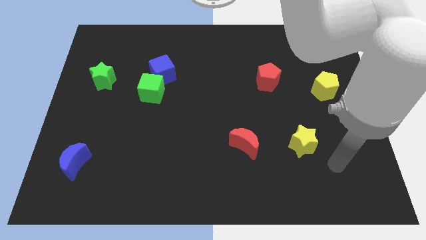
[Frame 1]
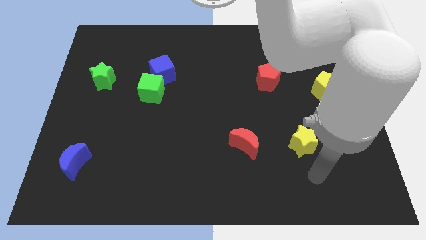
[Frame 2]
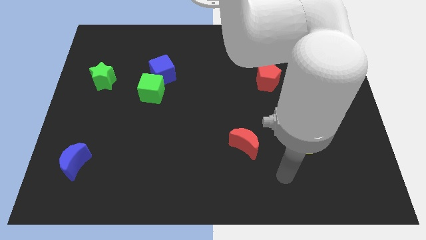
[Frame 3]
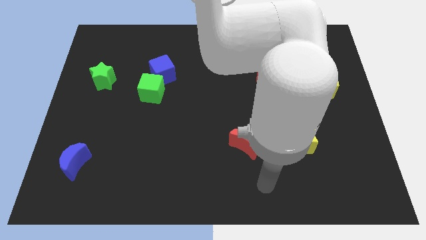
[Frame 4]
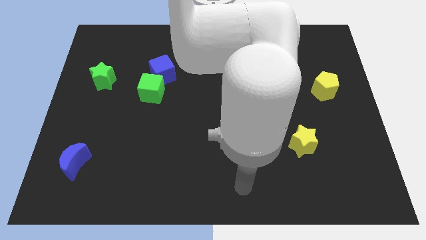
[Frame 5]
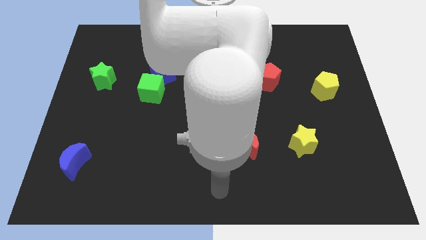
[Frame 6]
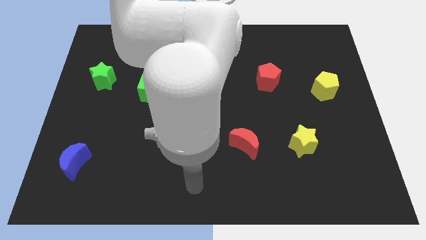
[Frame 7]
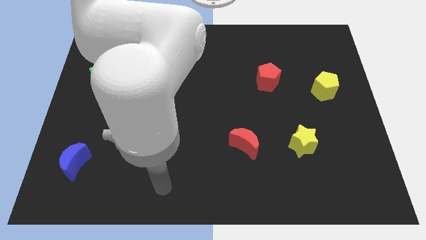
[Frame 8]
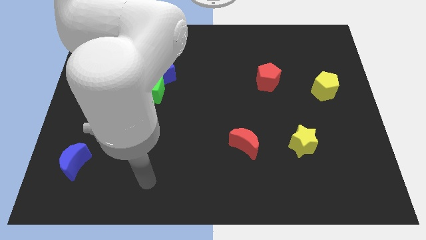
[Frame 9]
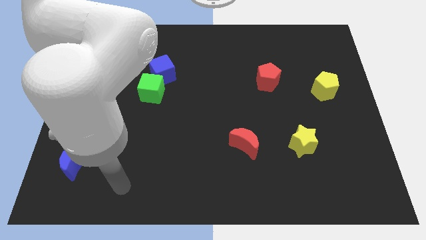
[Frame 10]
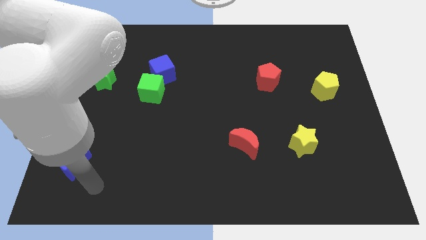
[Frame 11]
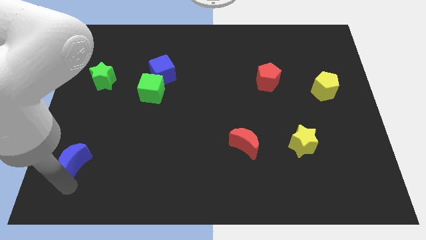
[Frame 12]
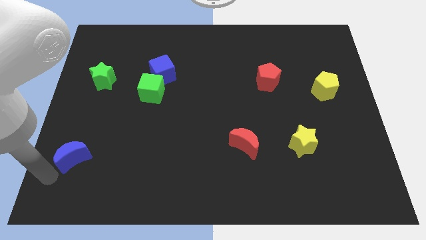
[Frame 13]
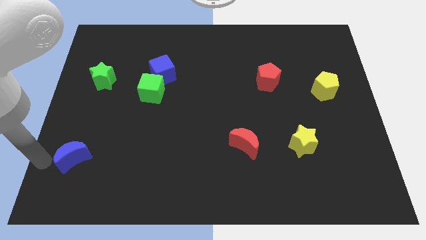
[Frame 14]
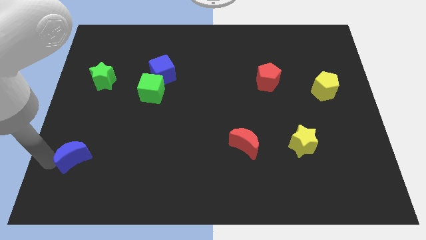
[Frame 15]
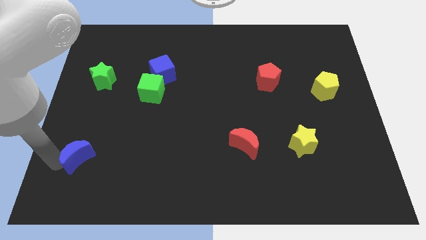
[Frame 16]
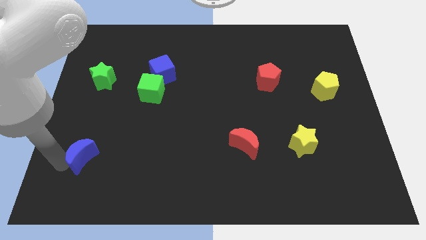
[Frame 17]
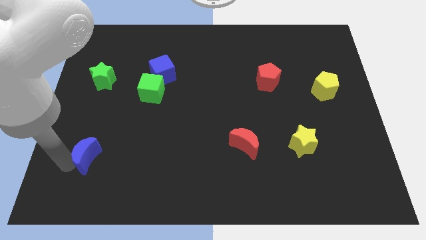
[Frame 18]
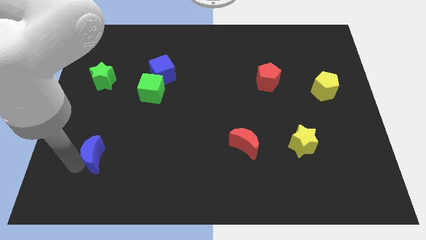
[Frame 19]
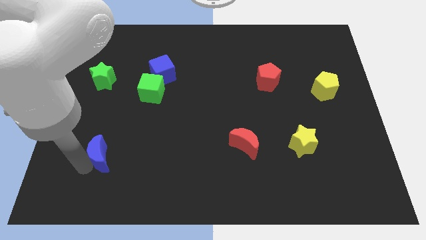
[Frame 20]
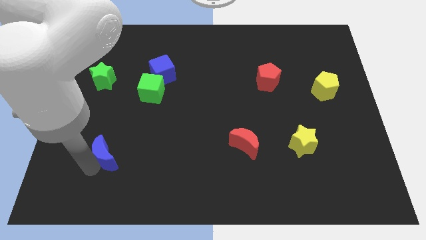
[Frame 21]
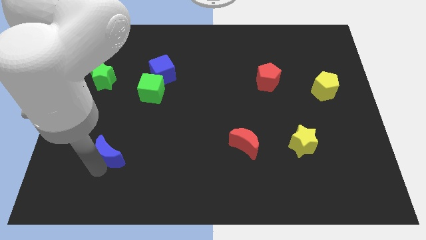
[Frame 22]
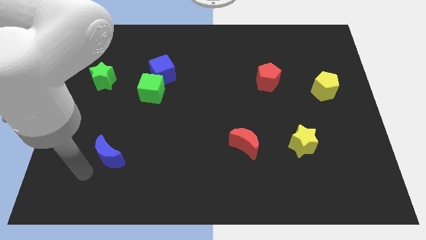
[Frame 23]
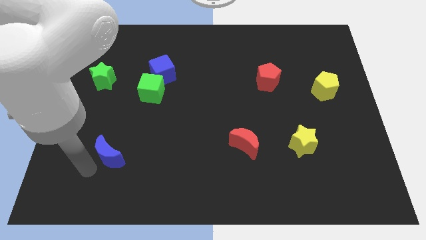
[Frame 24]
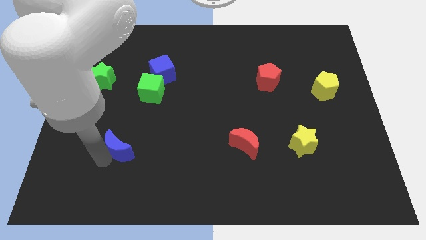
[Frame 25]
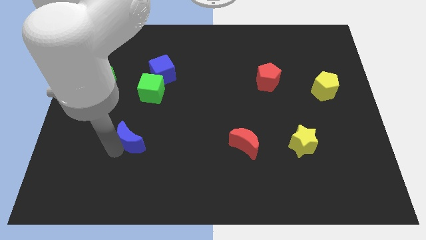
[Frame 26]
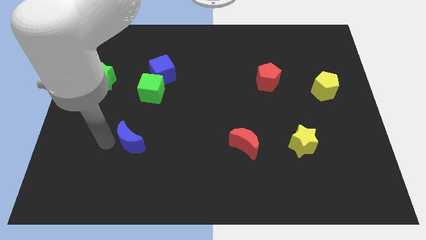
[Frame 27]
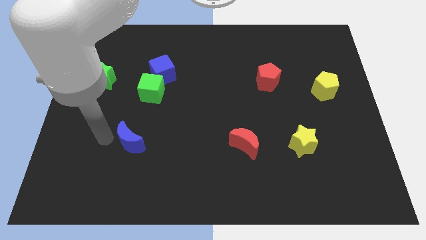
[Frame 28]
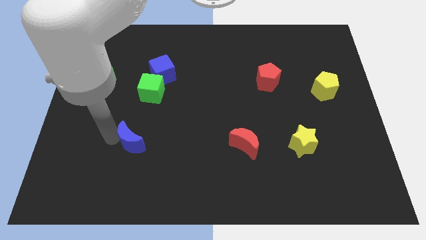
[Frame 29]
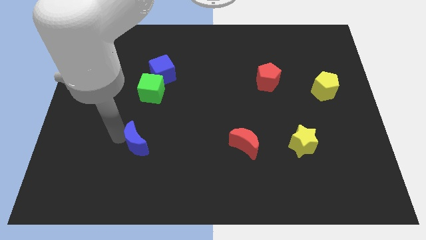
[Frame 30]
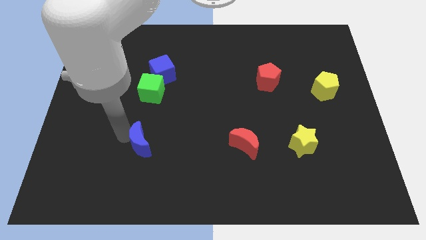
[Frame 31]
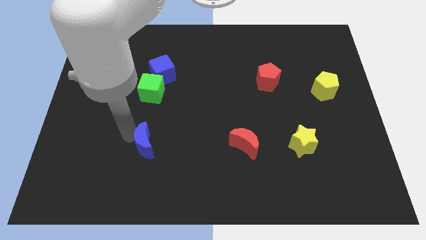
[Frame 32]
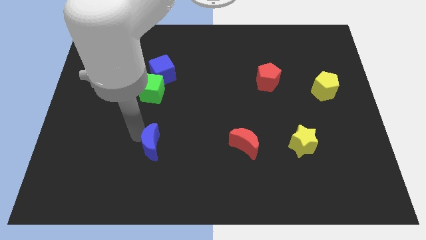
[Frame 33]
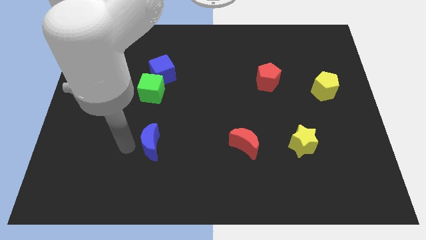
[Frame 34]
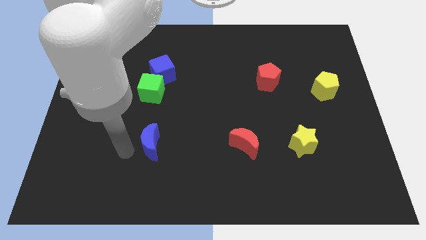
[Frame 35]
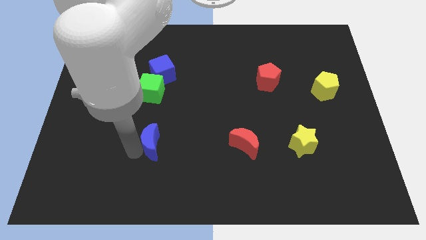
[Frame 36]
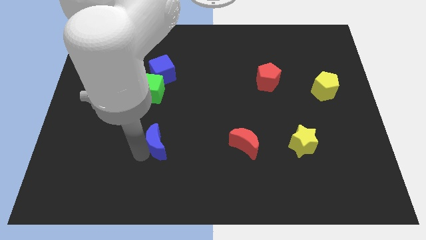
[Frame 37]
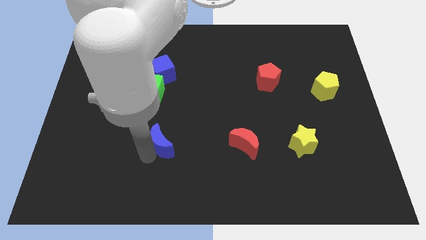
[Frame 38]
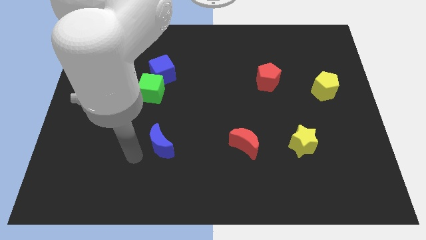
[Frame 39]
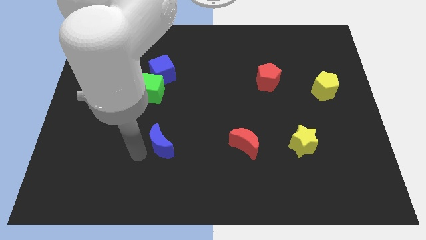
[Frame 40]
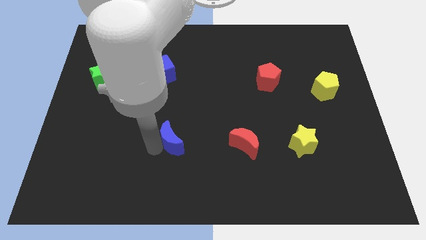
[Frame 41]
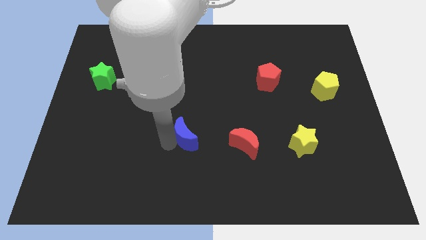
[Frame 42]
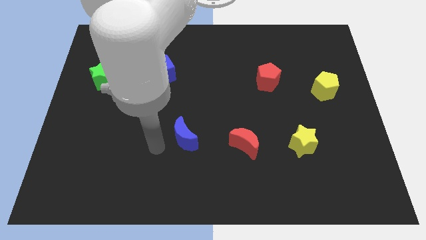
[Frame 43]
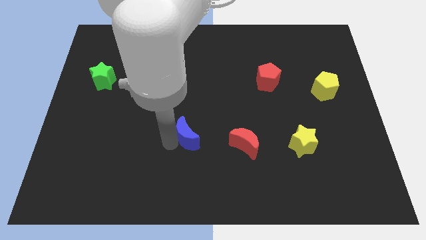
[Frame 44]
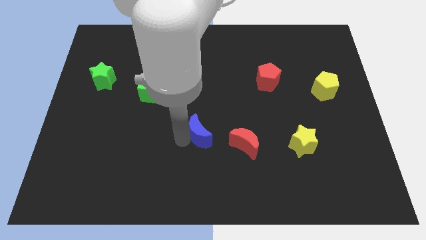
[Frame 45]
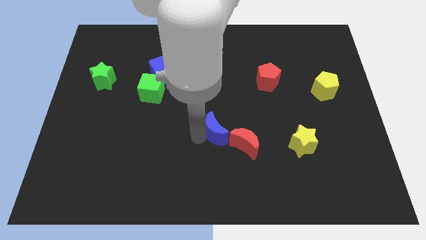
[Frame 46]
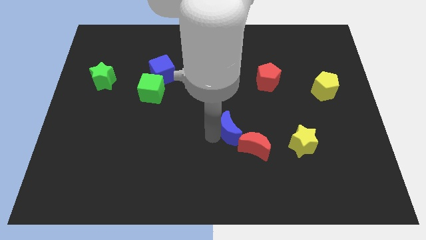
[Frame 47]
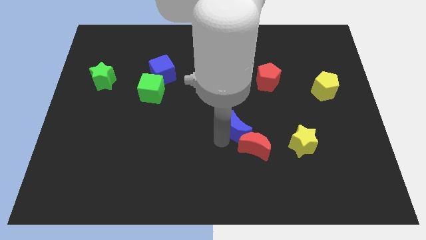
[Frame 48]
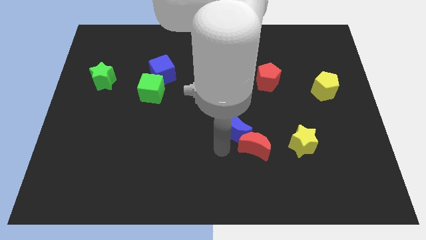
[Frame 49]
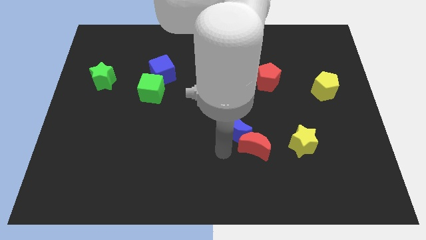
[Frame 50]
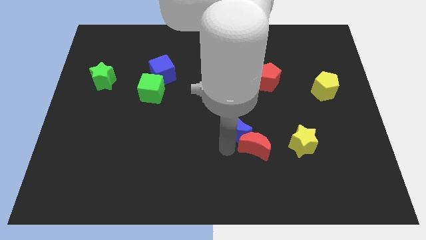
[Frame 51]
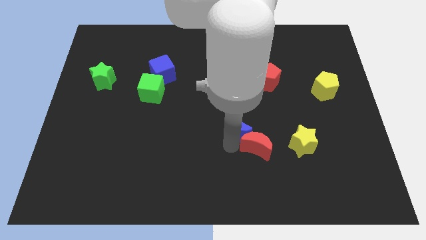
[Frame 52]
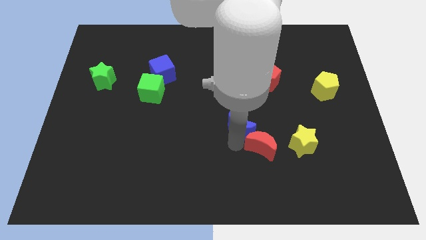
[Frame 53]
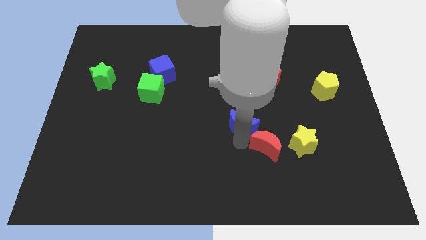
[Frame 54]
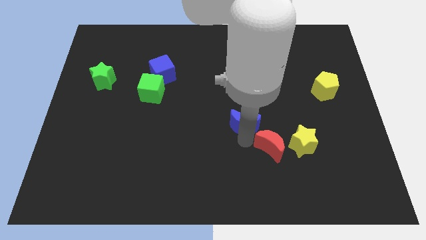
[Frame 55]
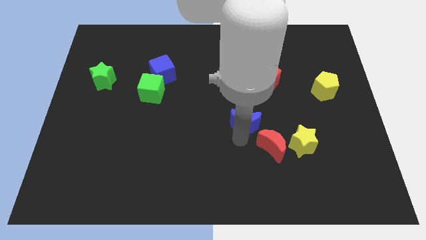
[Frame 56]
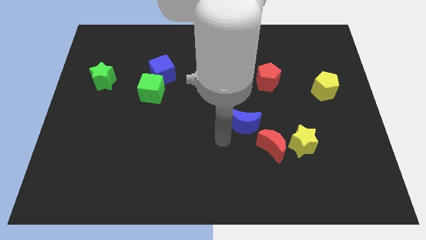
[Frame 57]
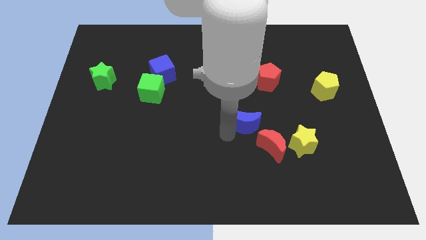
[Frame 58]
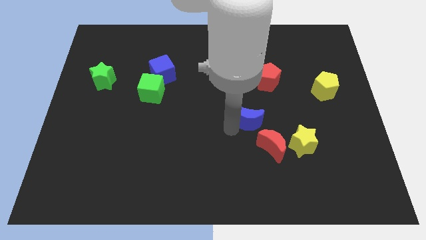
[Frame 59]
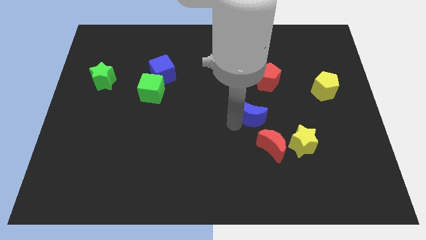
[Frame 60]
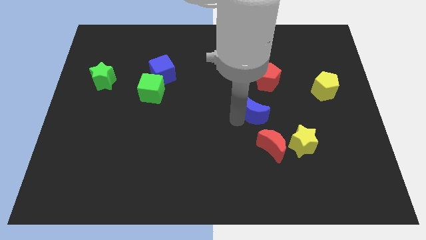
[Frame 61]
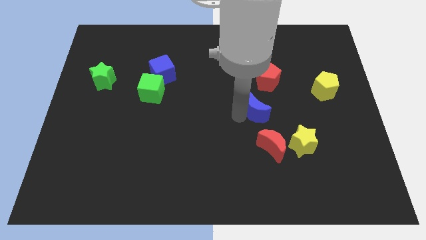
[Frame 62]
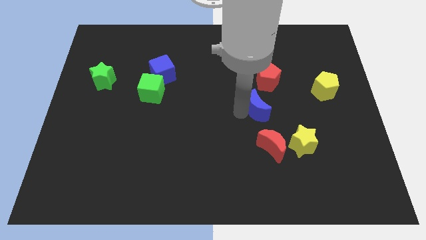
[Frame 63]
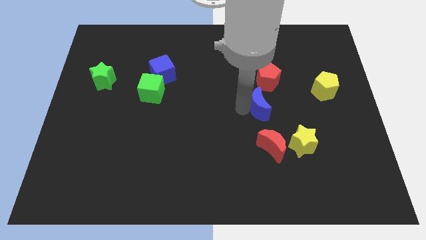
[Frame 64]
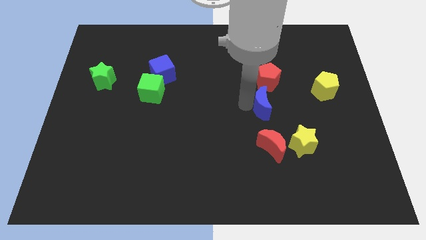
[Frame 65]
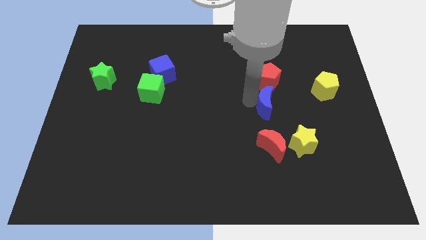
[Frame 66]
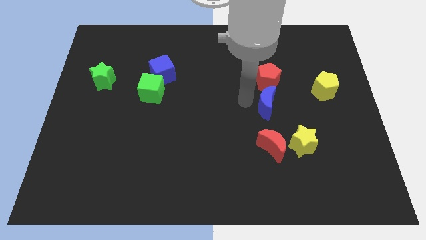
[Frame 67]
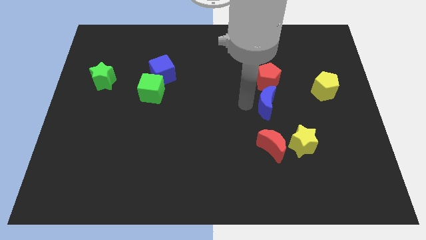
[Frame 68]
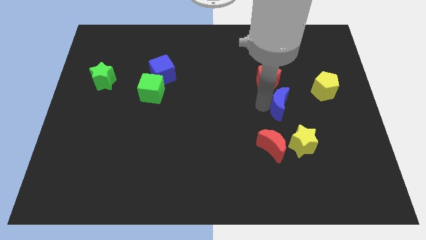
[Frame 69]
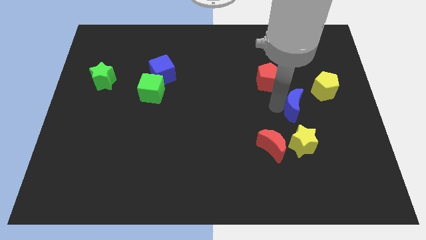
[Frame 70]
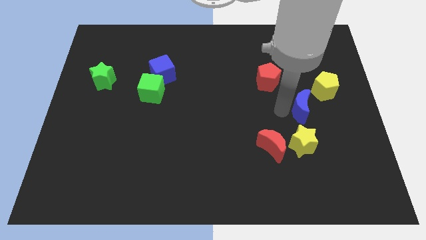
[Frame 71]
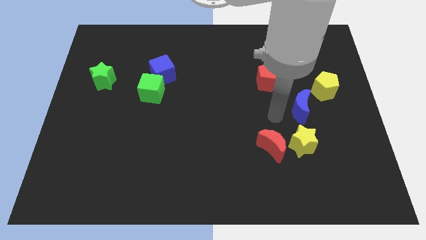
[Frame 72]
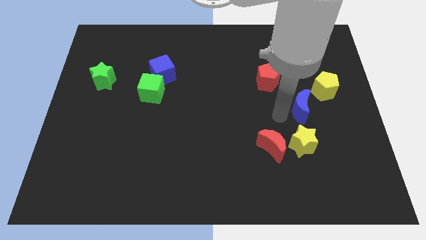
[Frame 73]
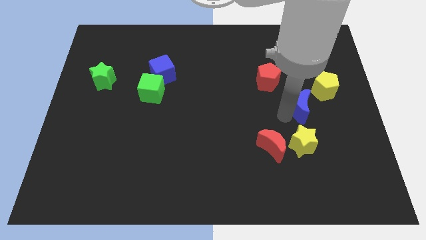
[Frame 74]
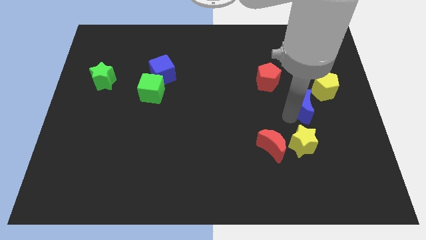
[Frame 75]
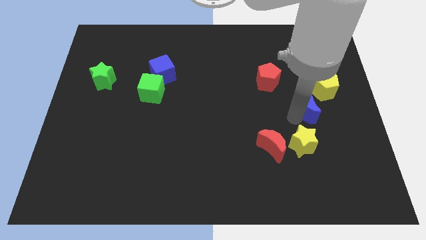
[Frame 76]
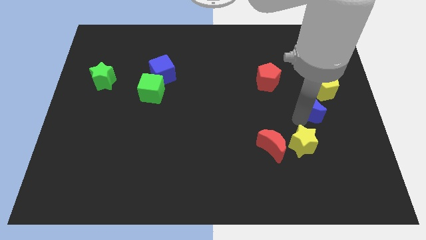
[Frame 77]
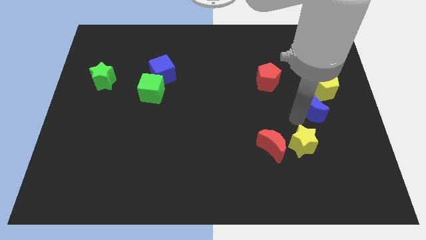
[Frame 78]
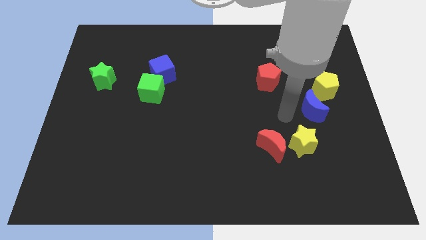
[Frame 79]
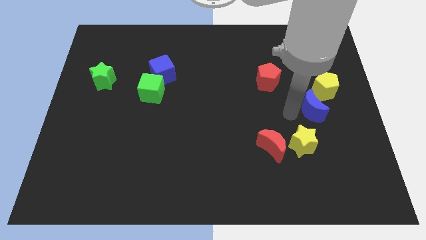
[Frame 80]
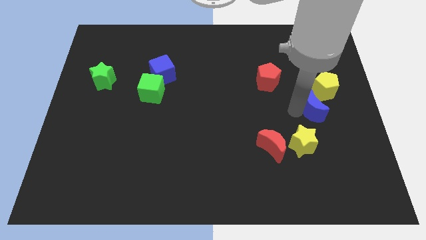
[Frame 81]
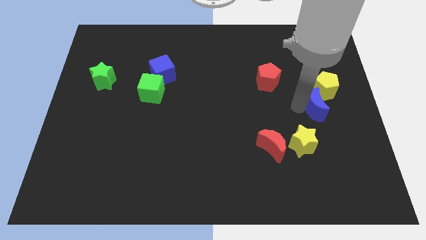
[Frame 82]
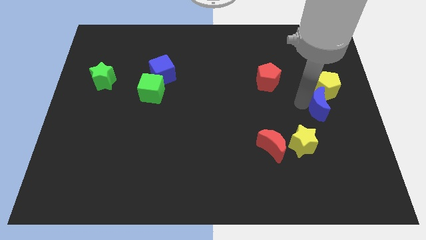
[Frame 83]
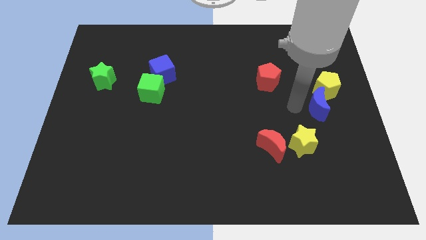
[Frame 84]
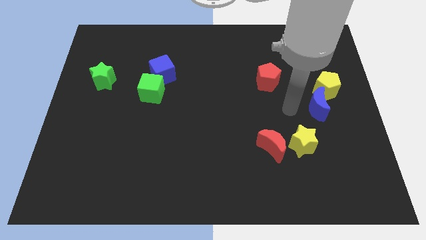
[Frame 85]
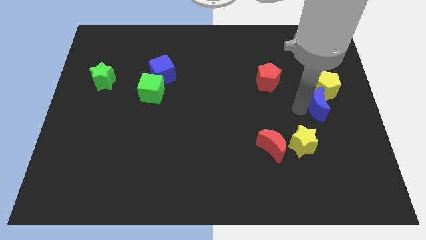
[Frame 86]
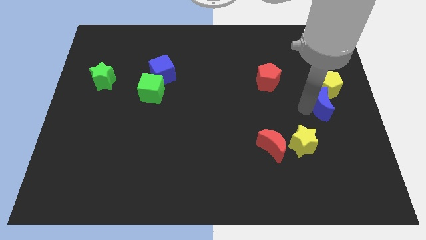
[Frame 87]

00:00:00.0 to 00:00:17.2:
move the blue moon to the right side
